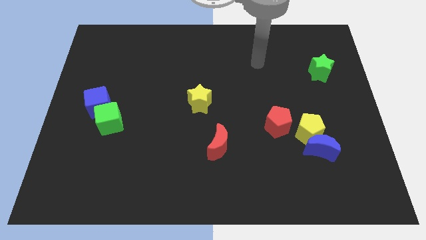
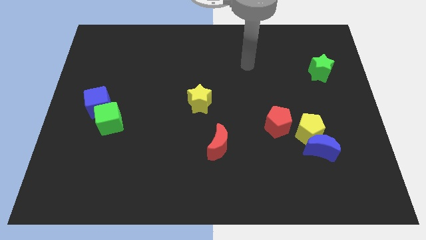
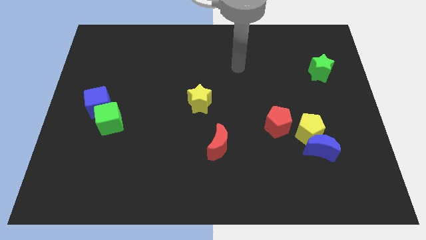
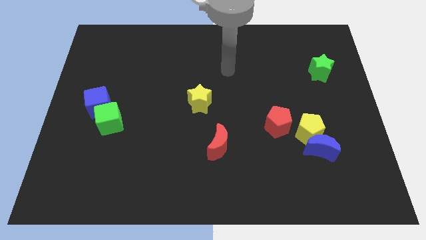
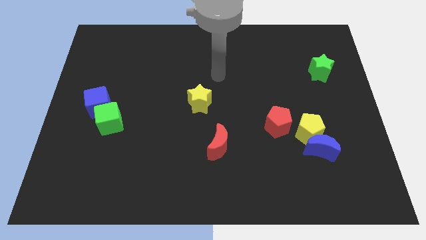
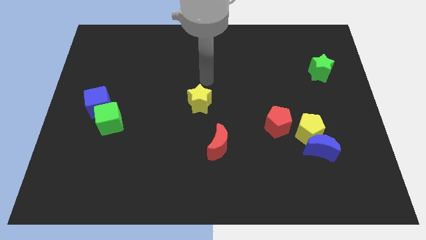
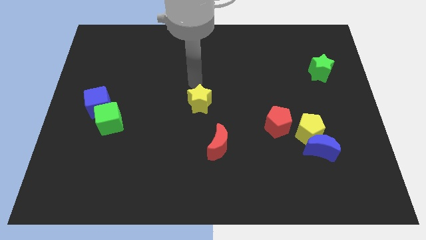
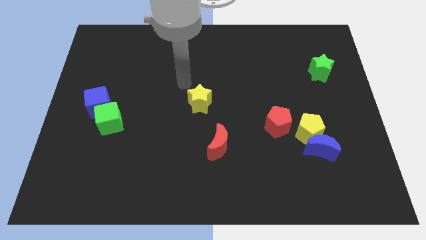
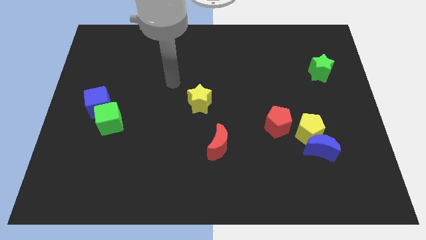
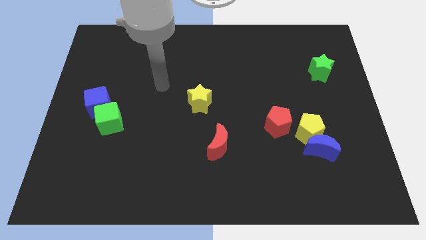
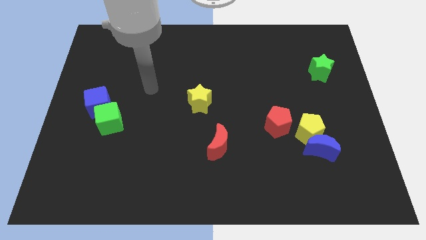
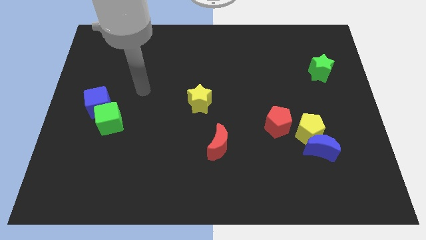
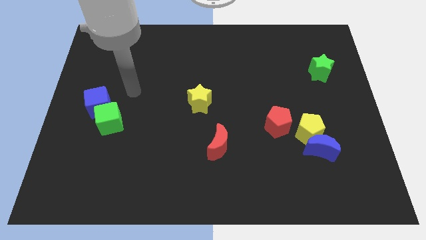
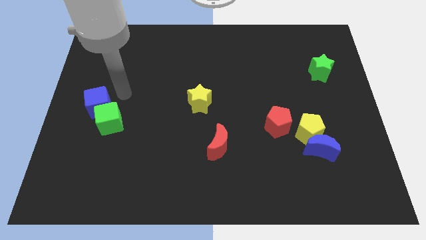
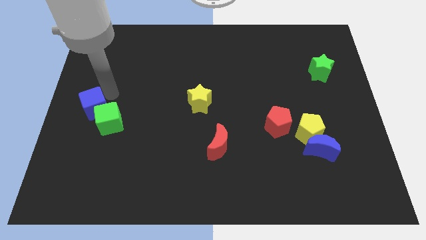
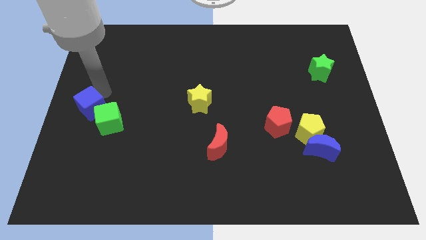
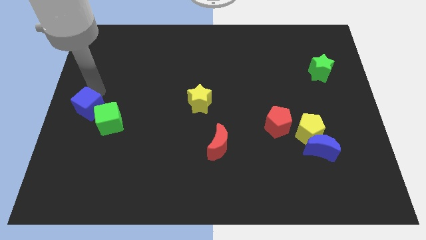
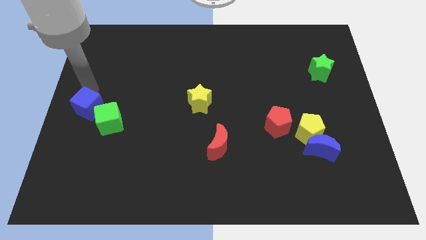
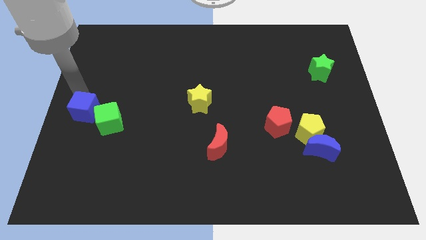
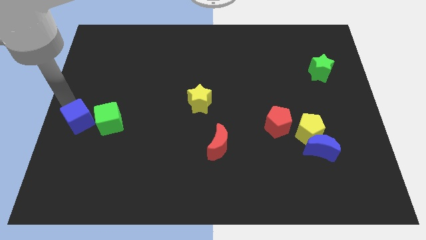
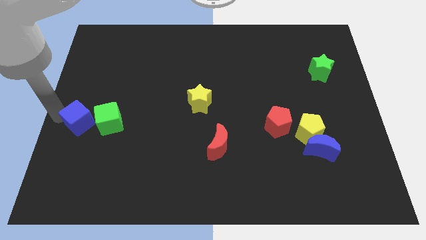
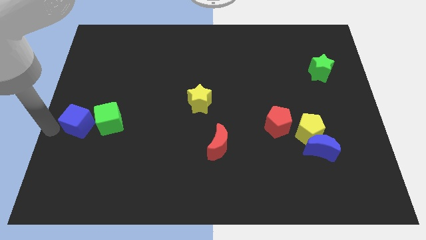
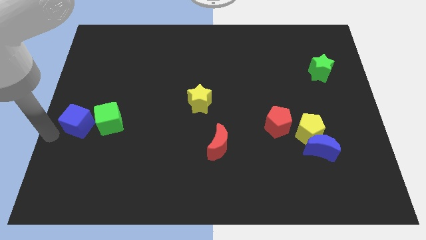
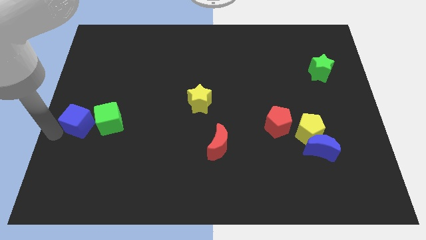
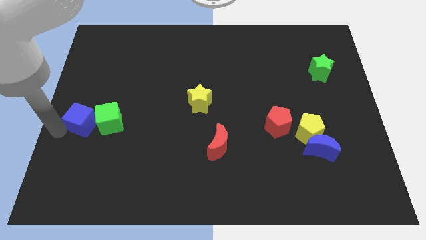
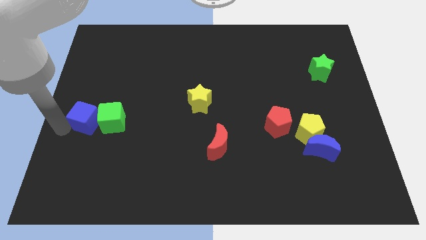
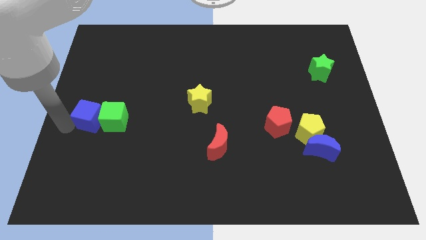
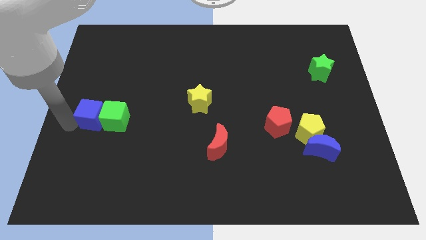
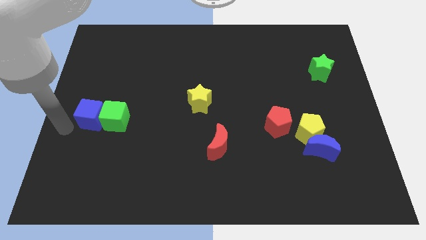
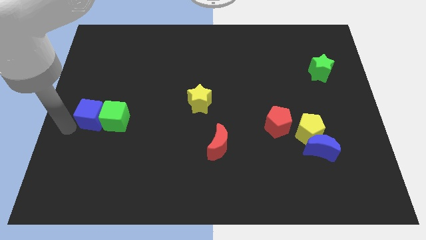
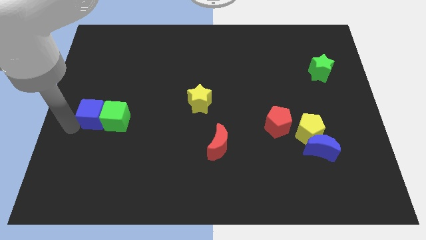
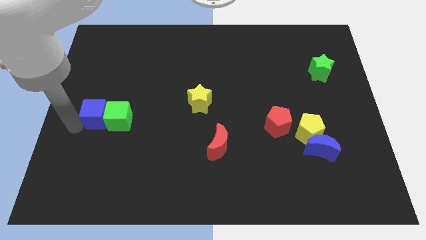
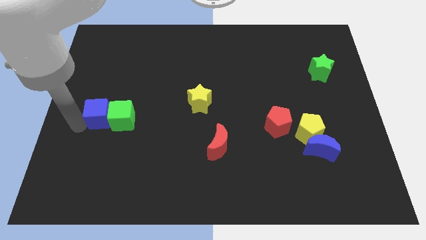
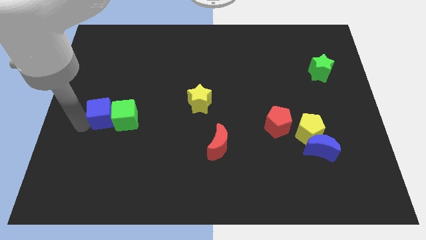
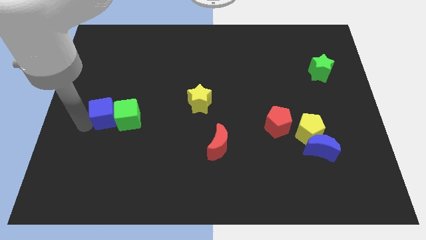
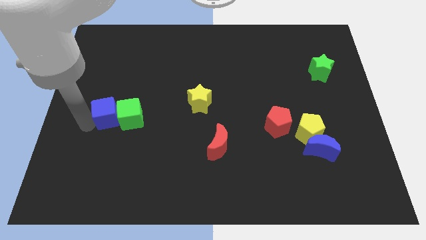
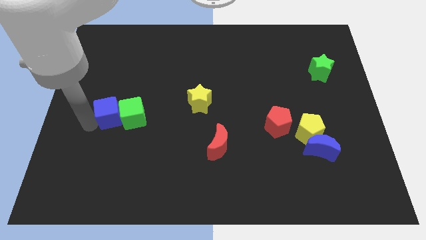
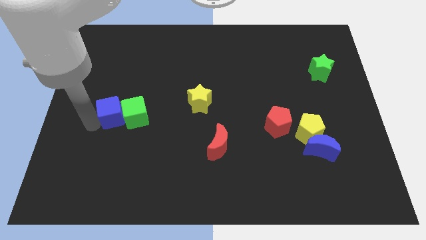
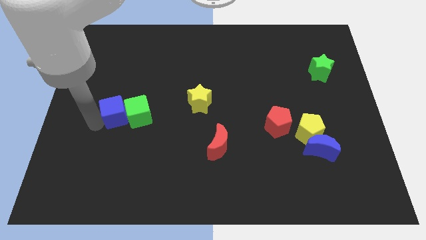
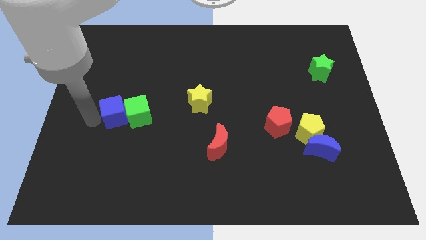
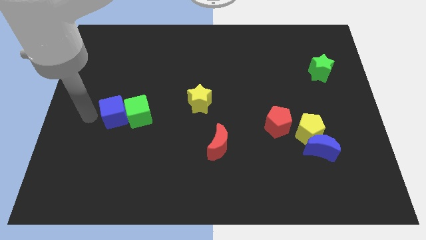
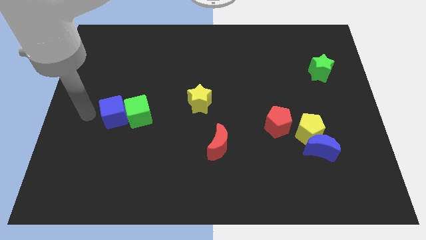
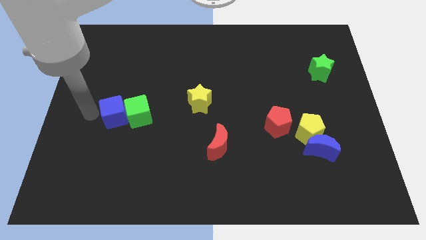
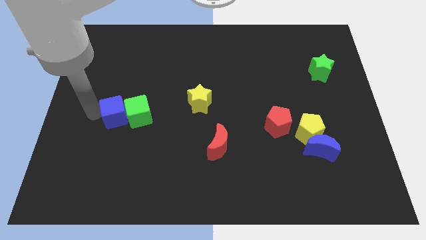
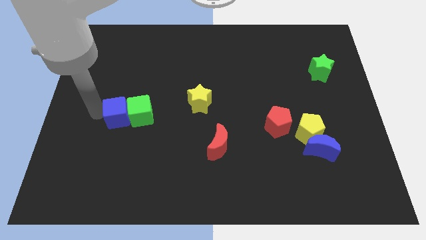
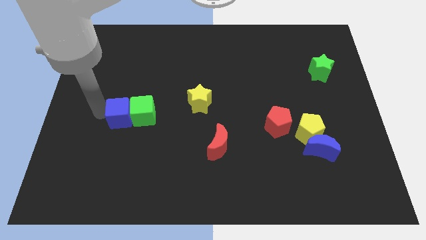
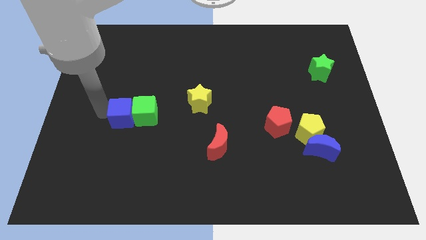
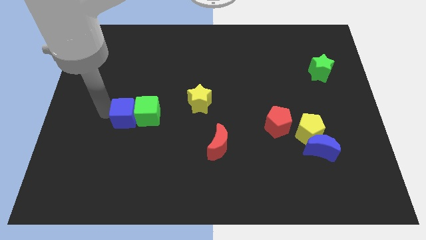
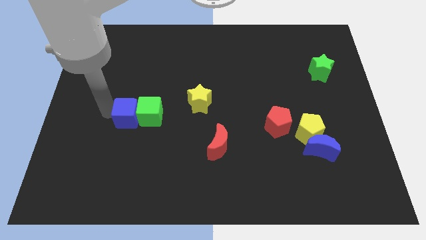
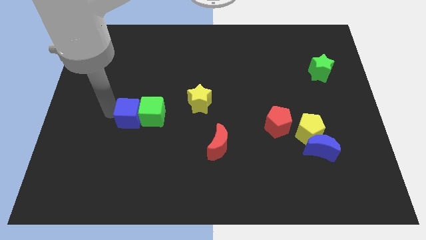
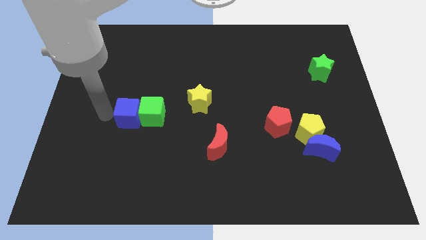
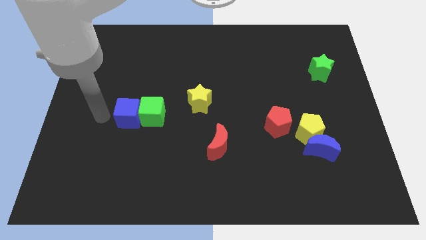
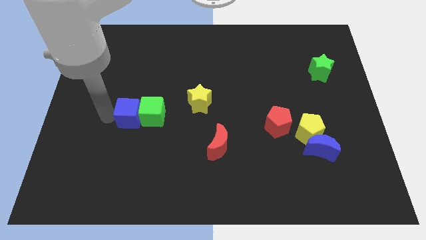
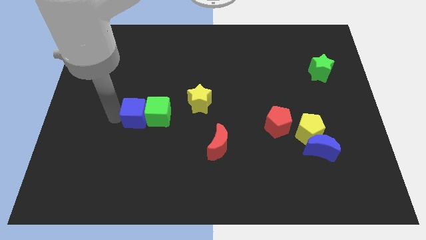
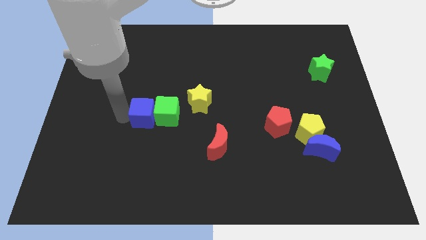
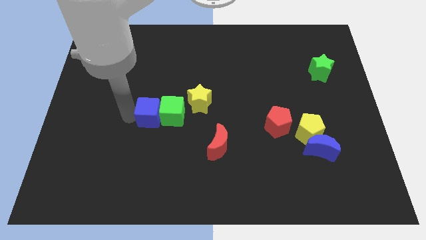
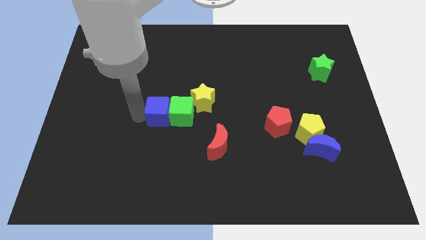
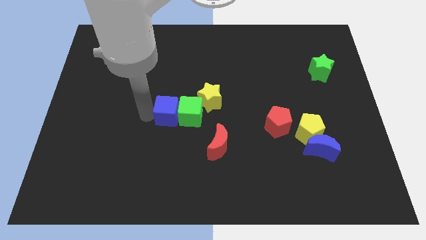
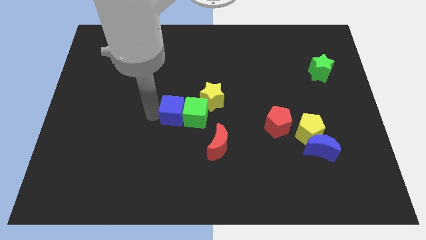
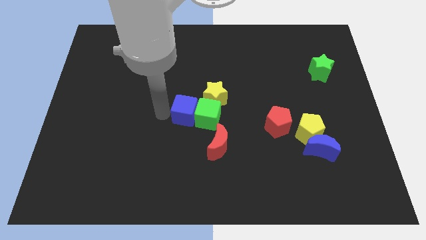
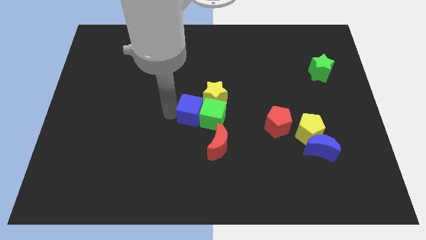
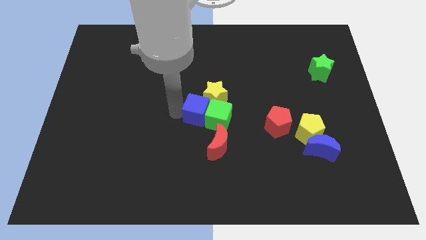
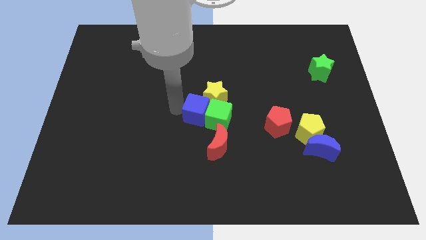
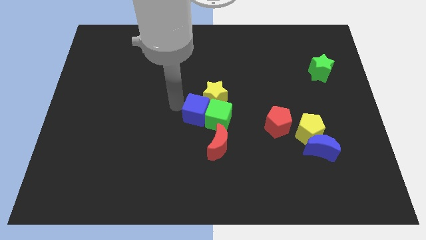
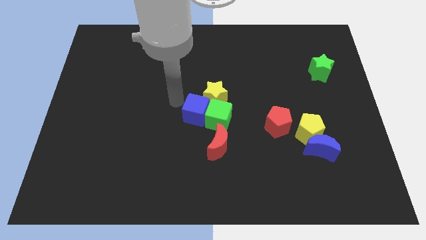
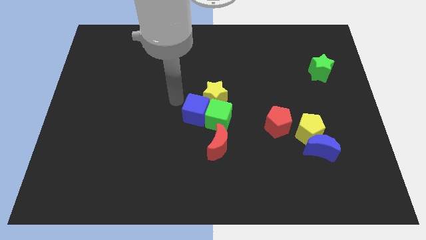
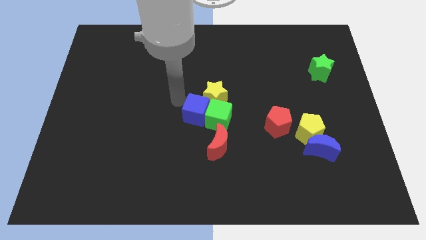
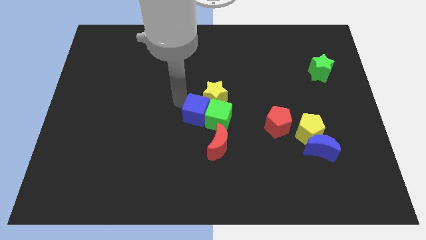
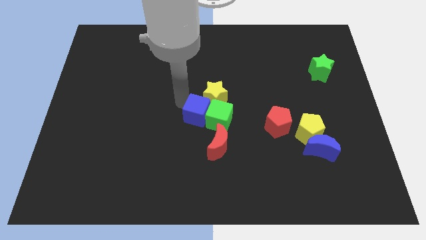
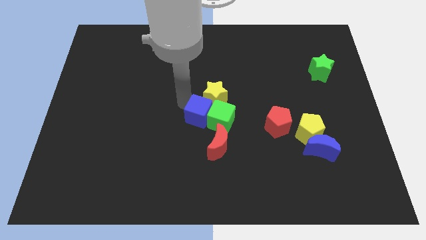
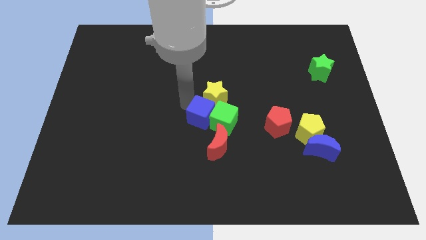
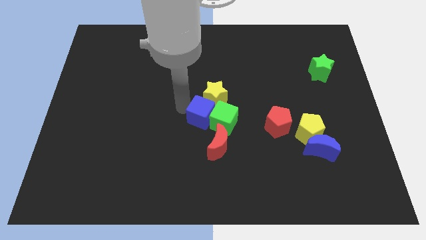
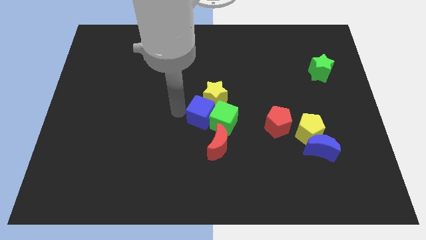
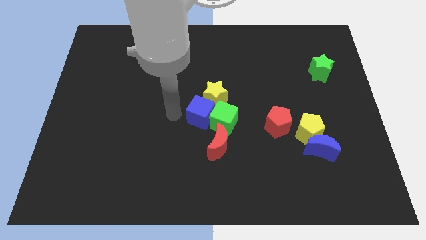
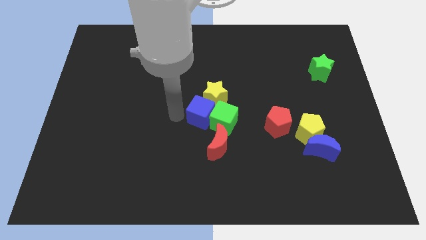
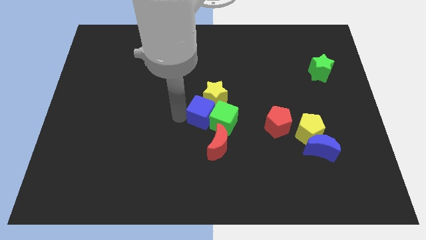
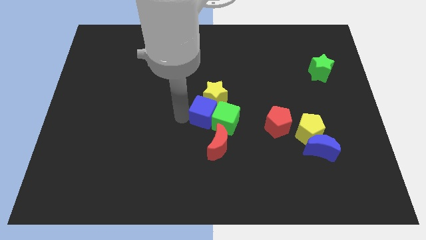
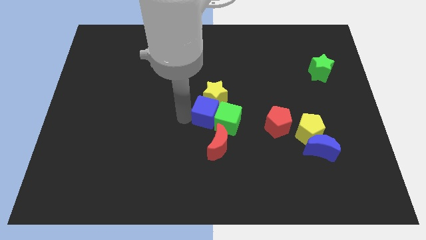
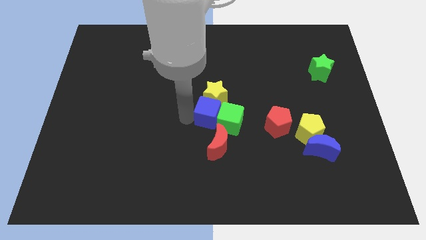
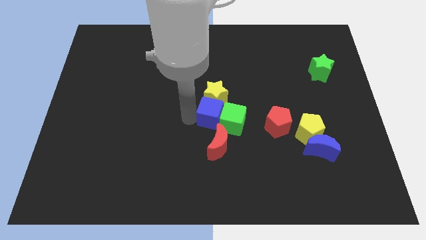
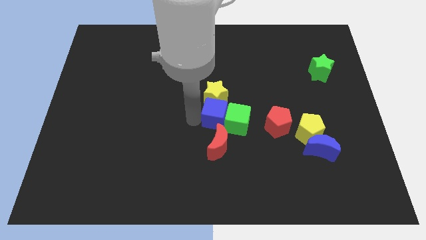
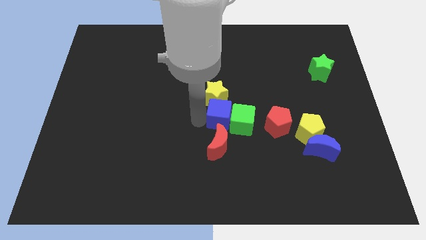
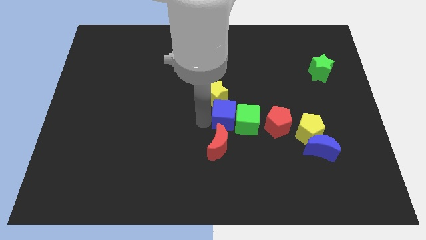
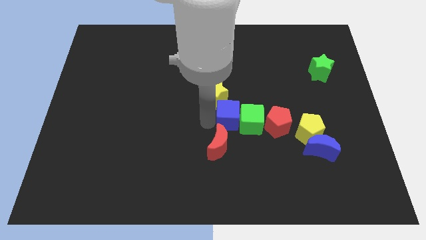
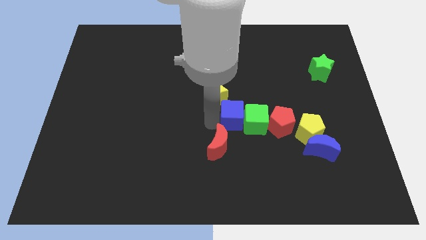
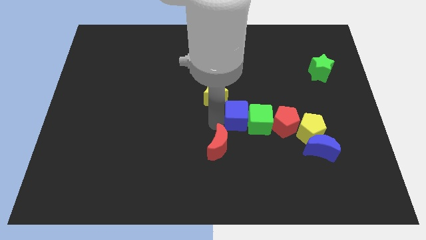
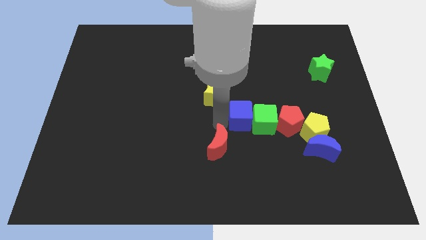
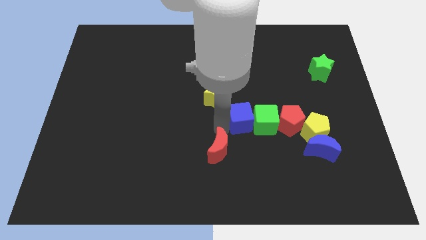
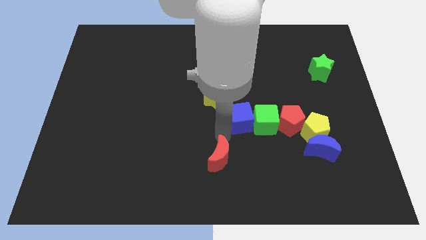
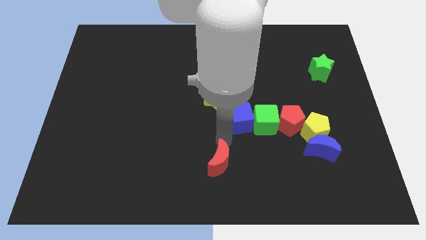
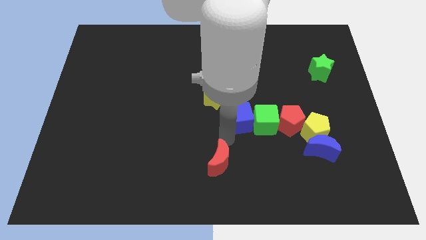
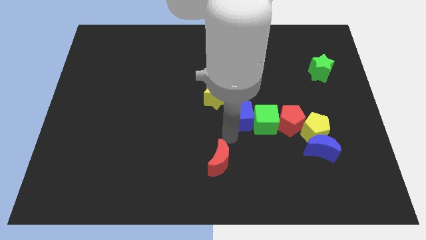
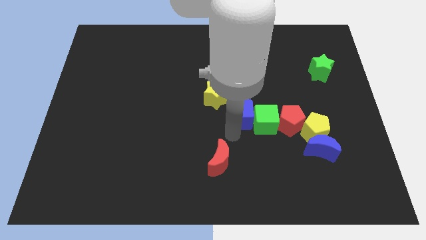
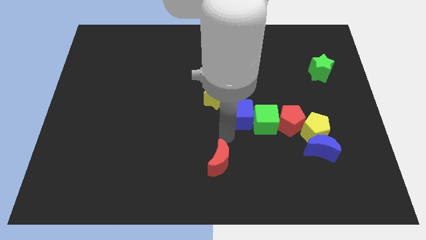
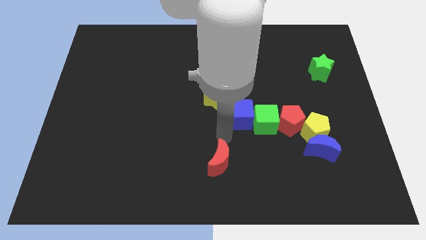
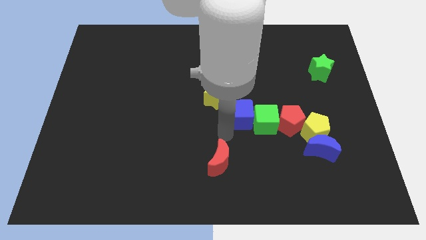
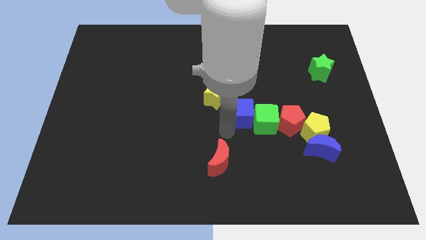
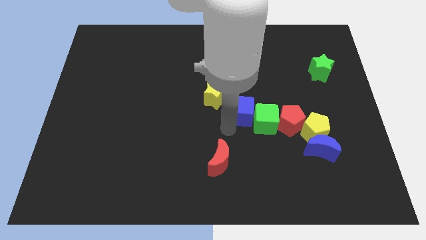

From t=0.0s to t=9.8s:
put the blue cube just right of the yellow star
